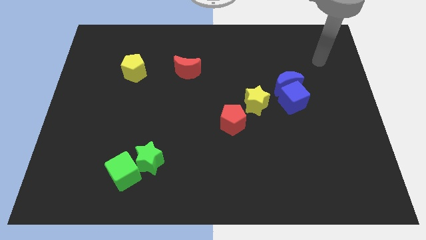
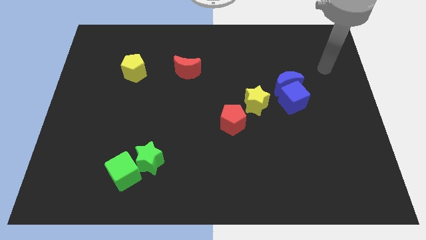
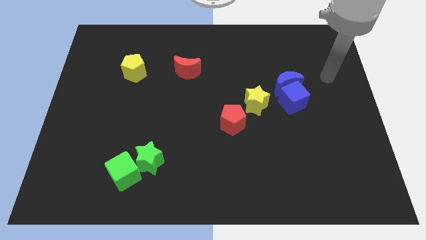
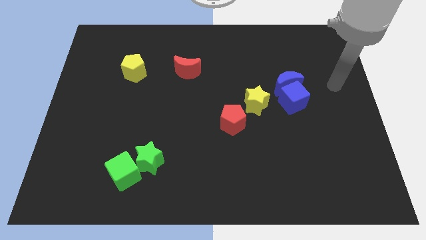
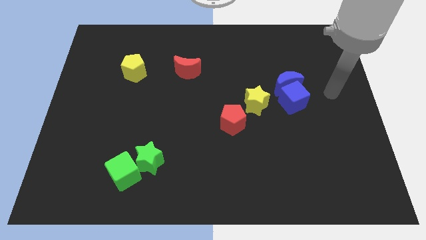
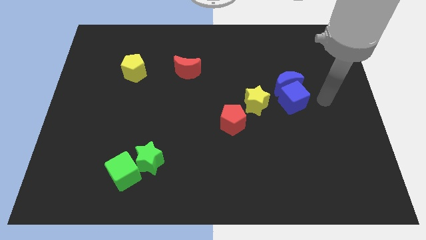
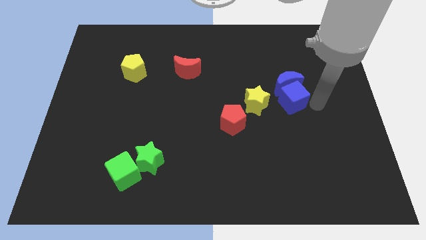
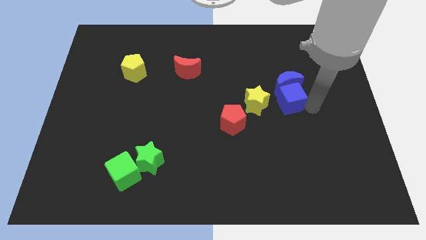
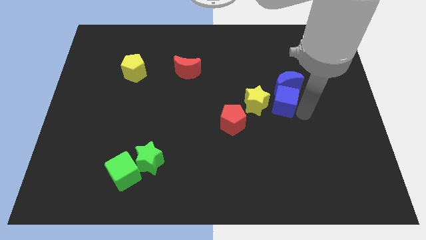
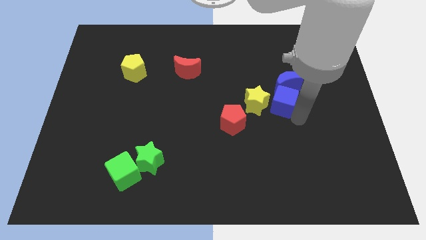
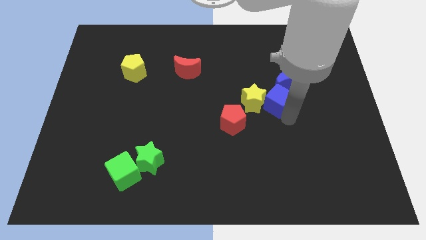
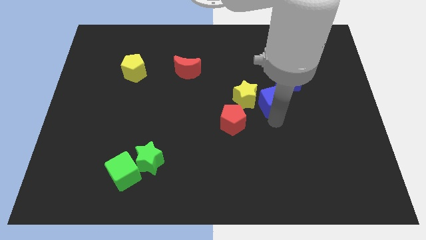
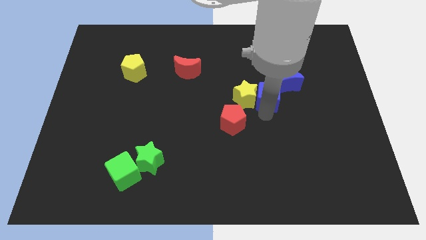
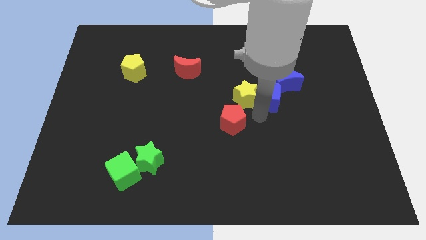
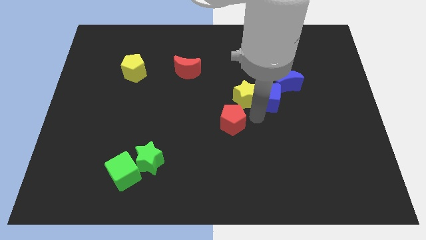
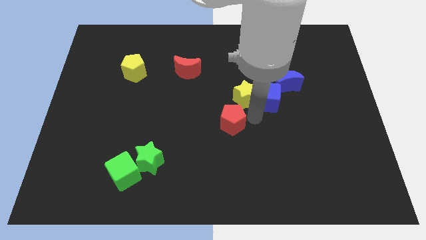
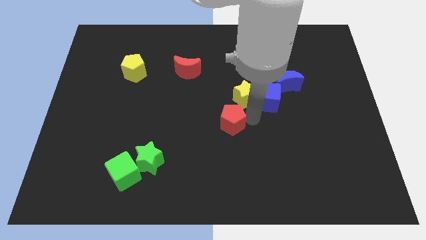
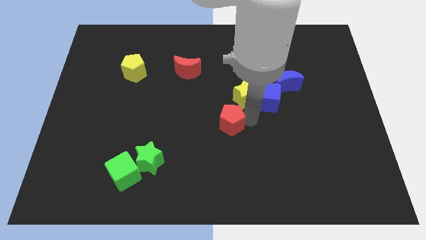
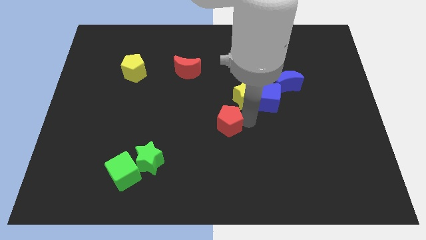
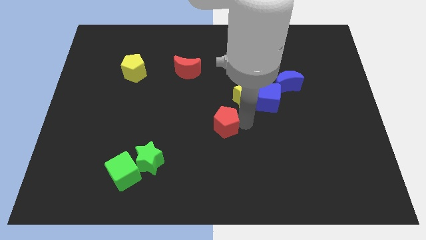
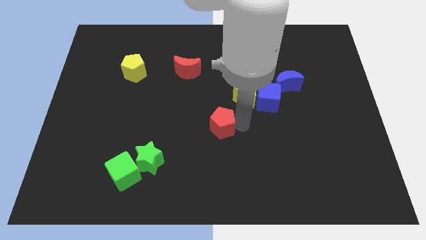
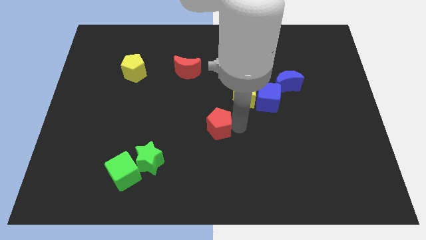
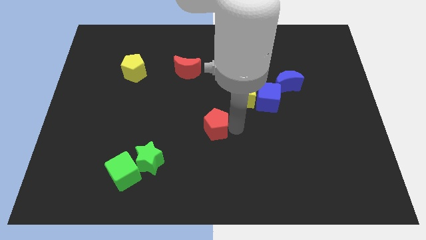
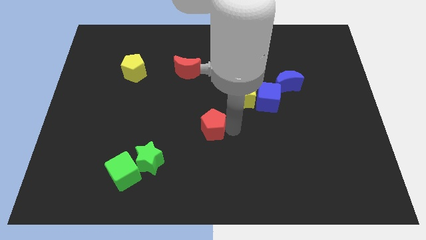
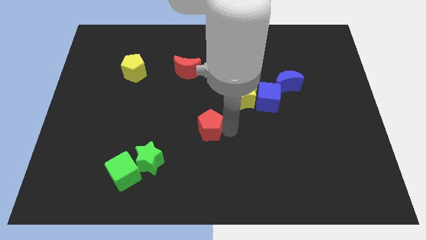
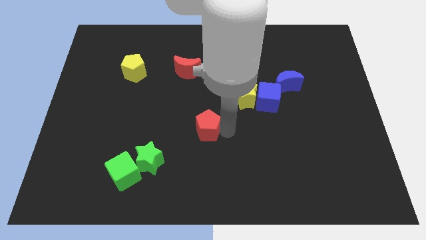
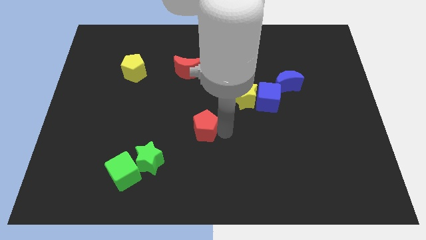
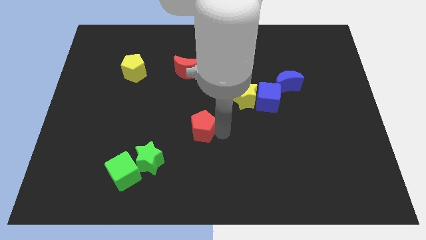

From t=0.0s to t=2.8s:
slightly slide the red pentagon to the left

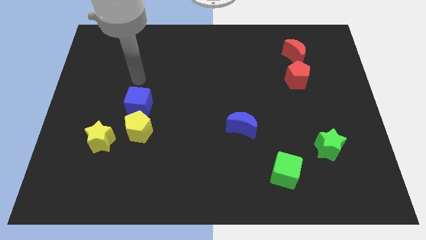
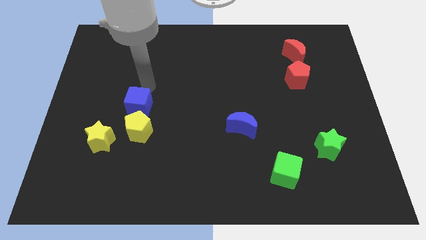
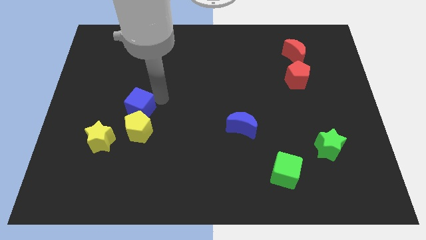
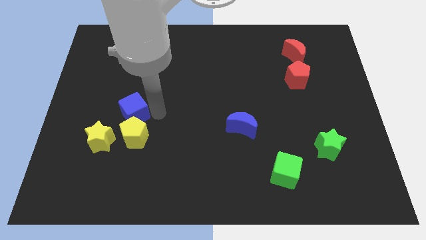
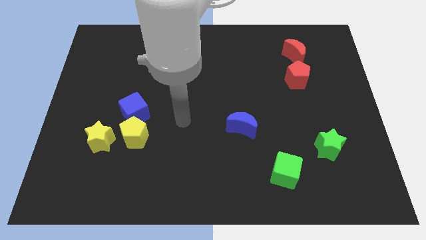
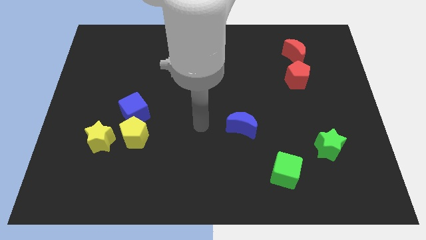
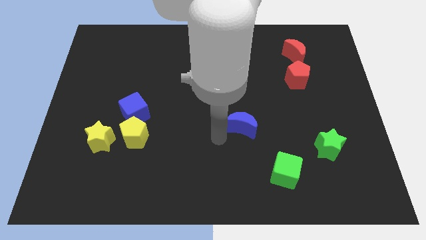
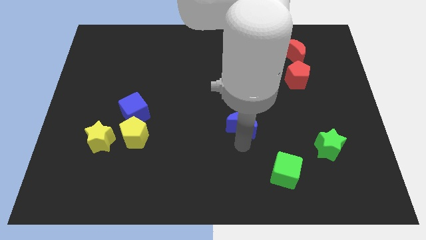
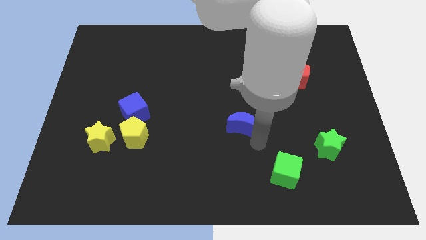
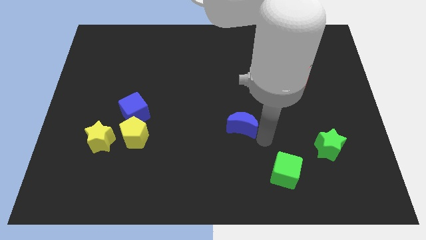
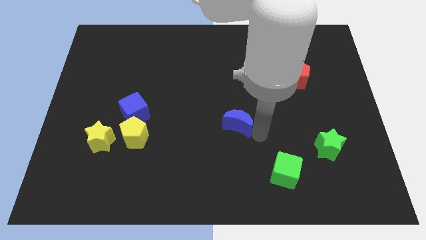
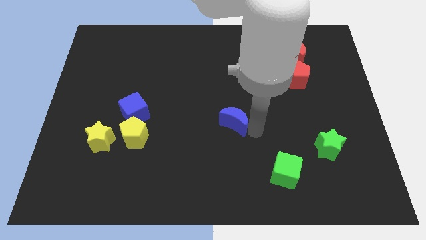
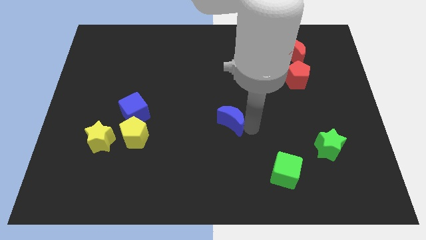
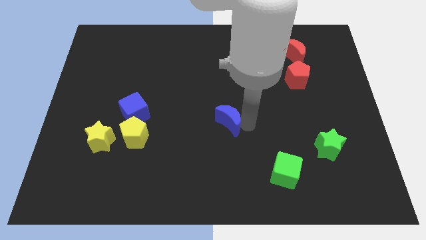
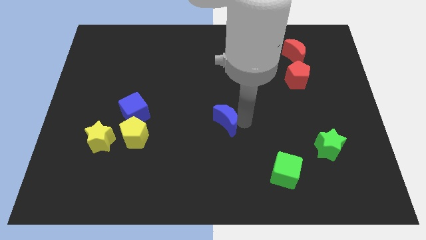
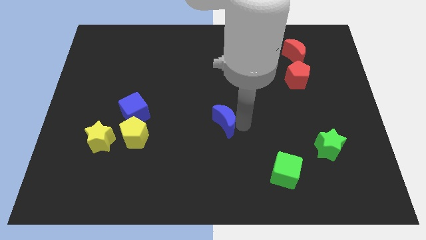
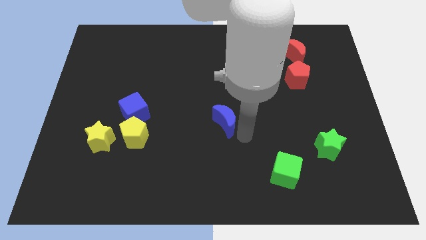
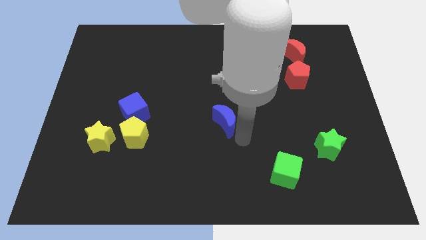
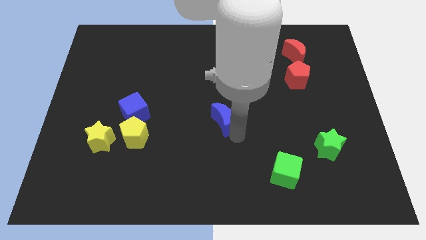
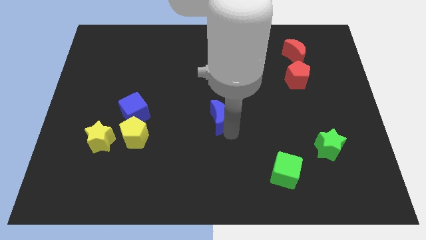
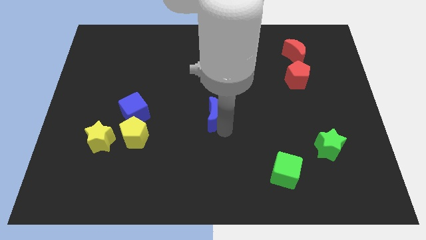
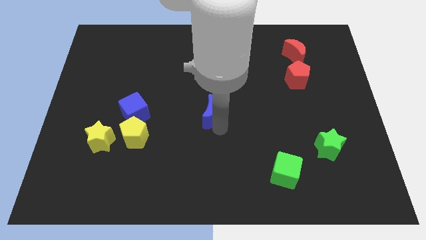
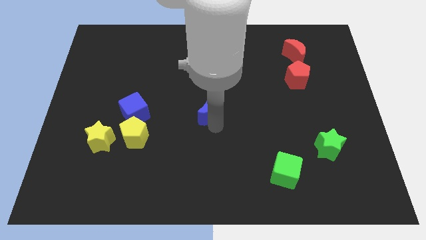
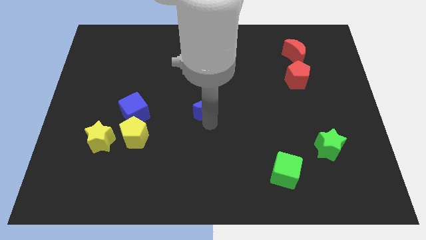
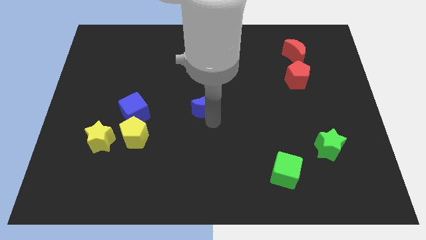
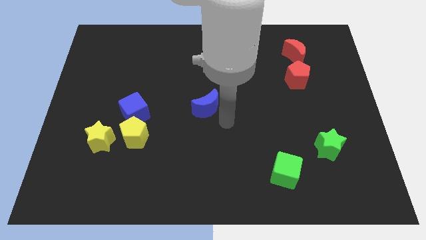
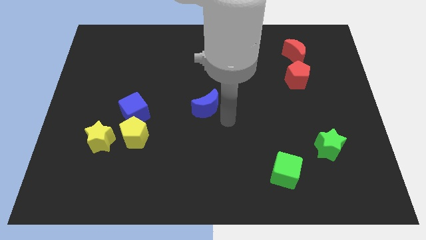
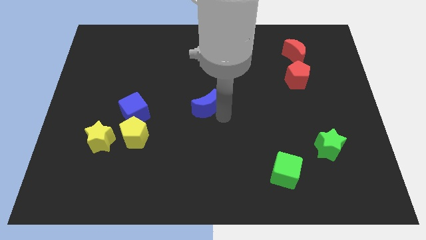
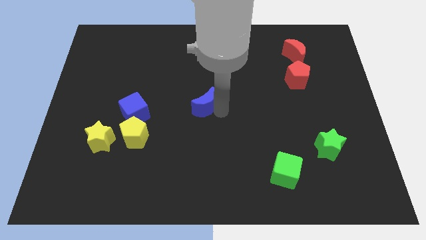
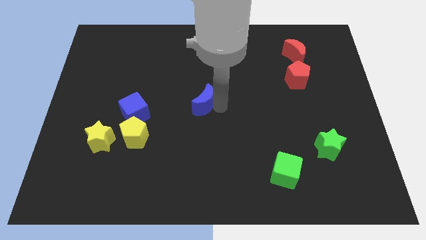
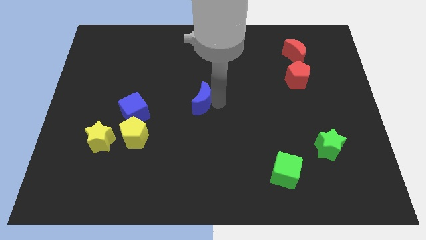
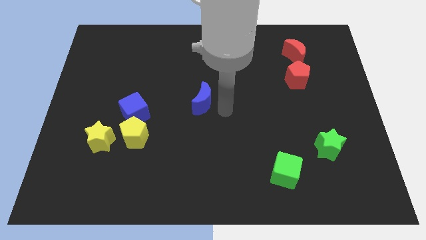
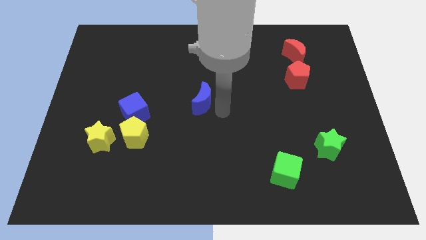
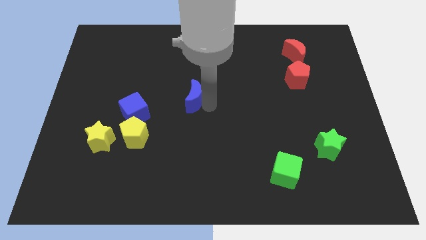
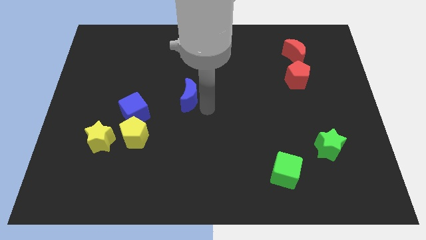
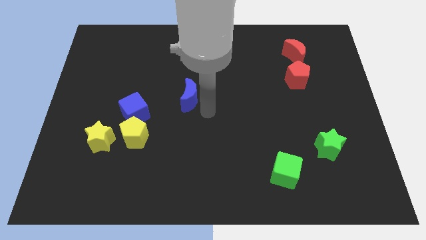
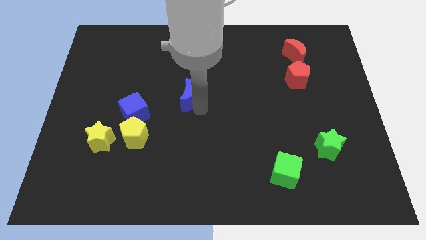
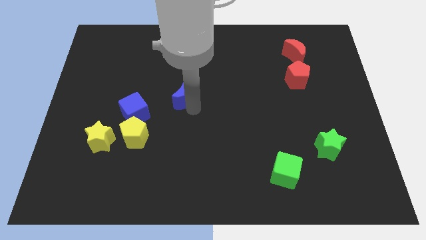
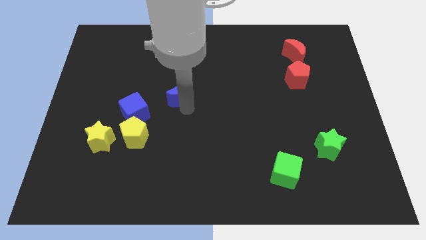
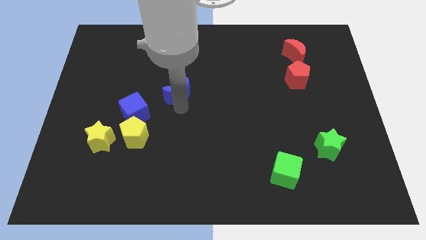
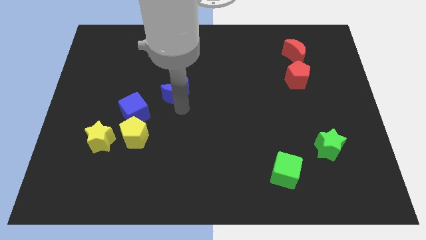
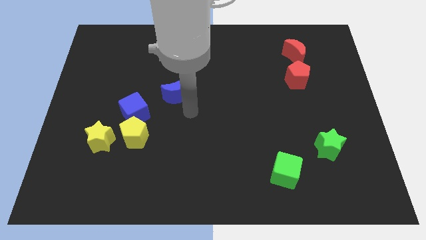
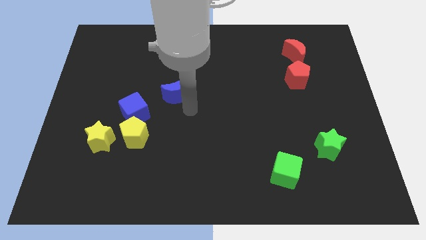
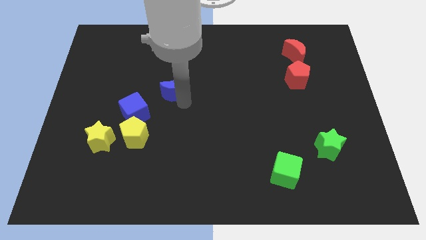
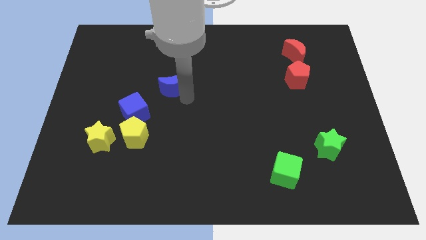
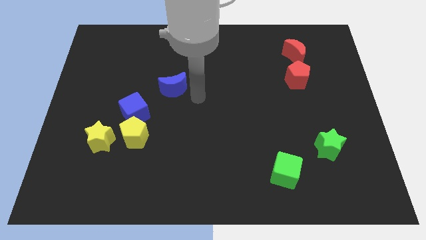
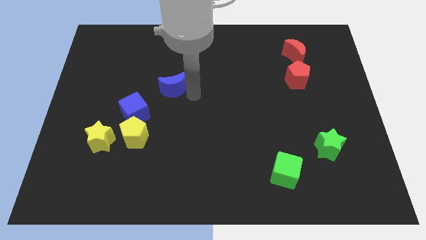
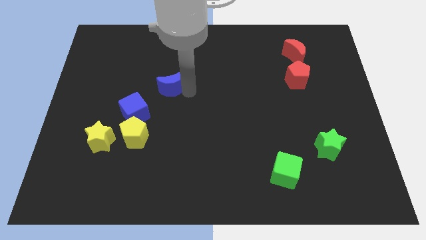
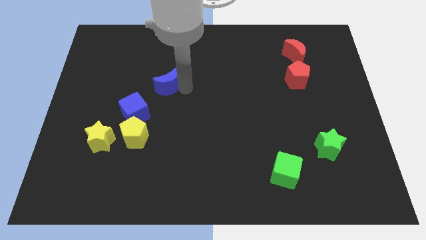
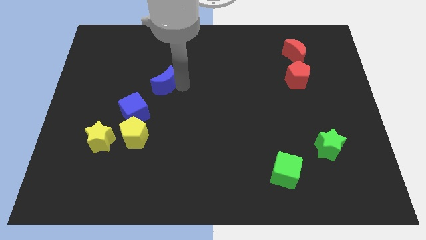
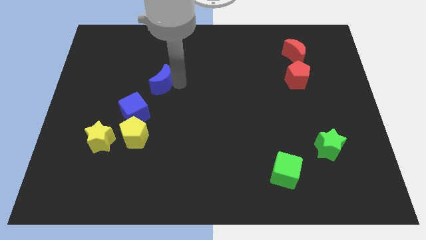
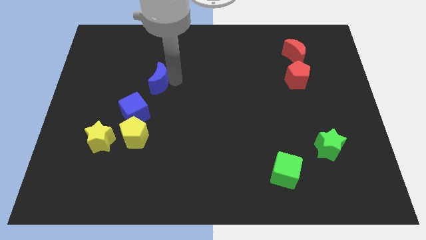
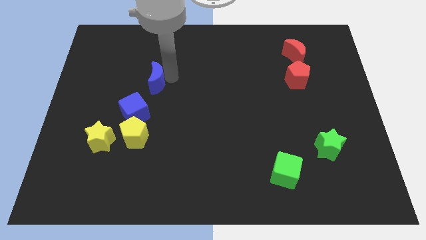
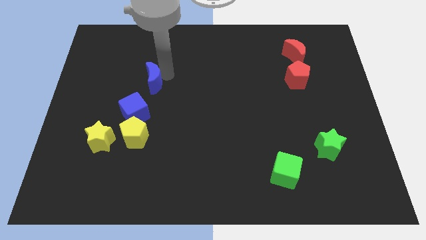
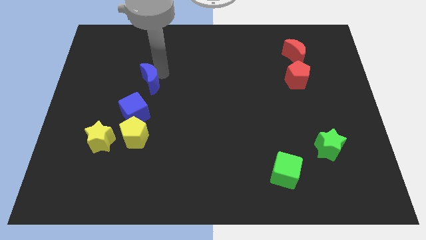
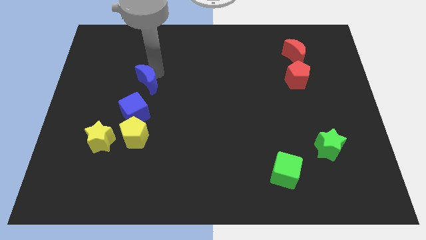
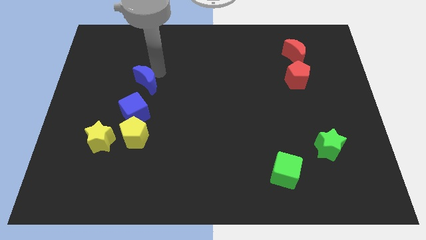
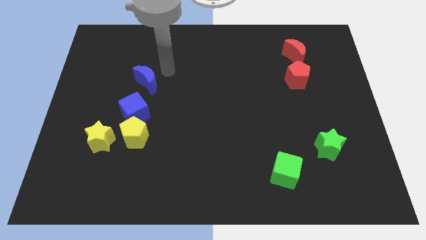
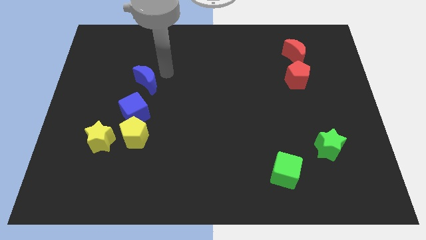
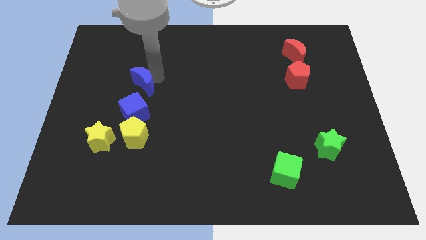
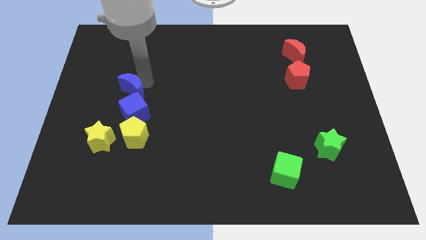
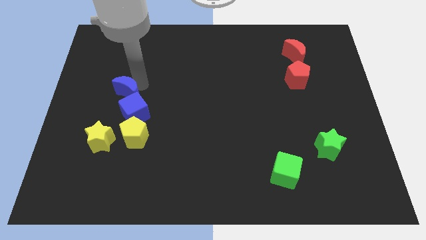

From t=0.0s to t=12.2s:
slide the blue moon left
